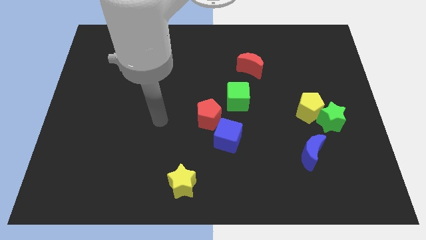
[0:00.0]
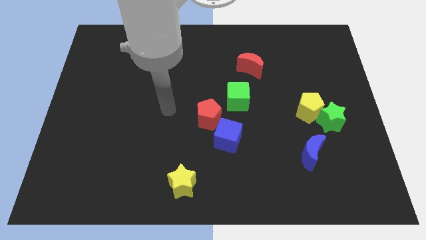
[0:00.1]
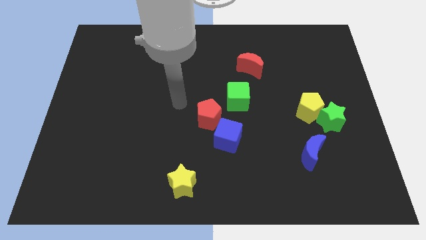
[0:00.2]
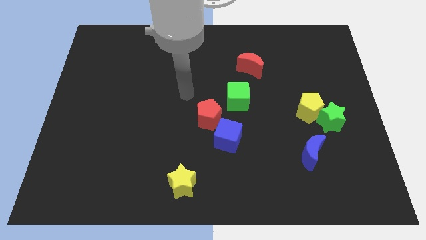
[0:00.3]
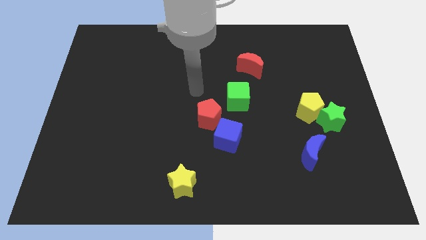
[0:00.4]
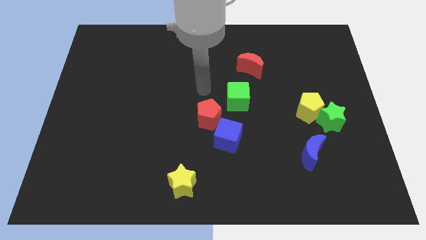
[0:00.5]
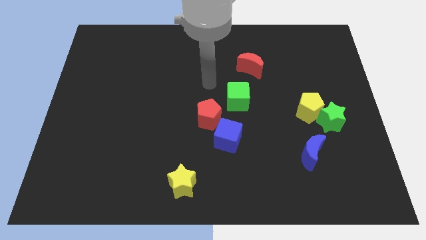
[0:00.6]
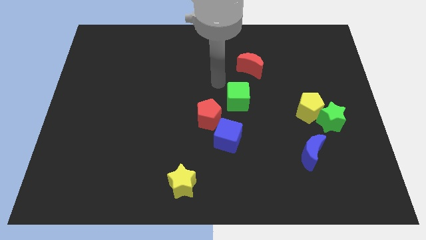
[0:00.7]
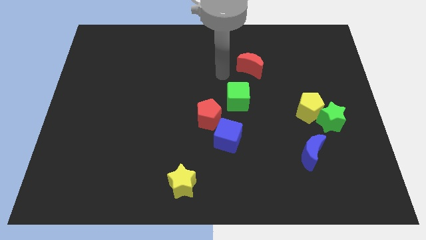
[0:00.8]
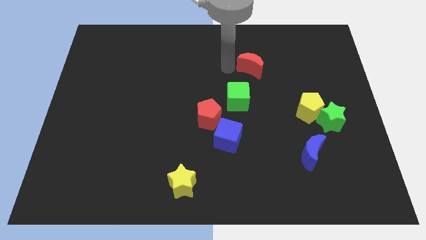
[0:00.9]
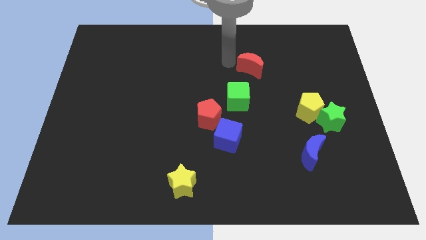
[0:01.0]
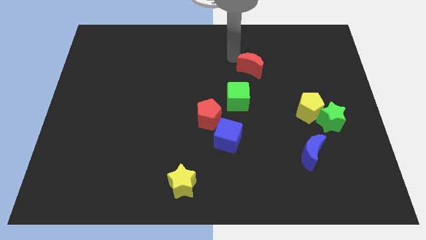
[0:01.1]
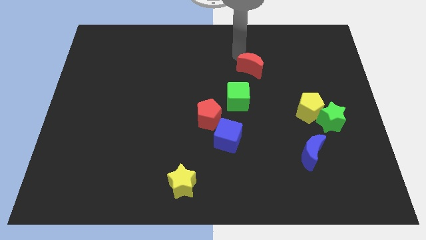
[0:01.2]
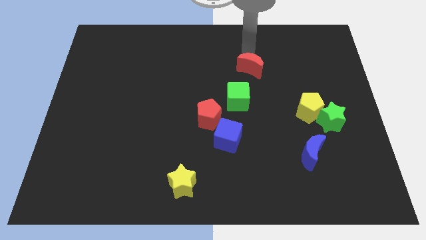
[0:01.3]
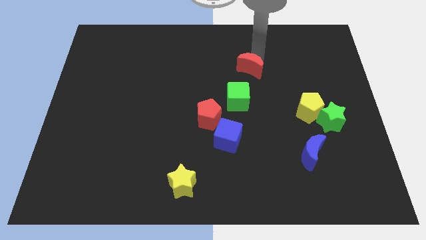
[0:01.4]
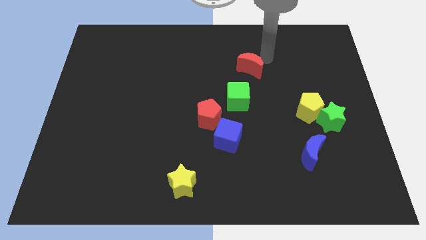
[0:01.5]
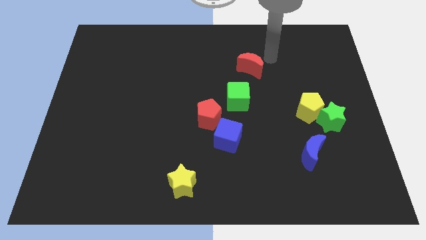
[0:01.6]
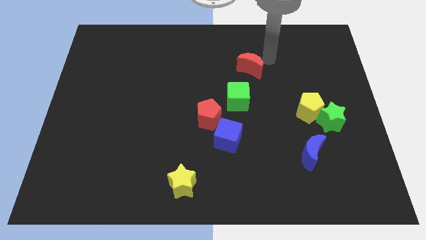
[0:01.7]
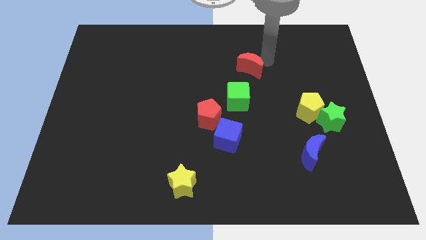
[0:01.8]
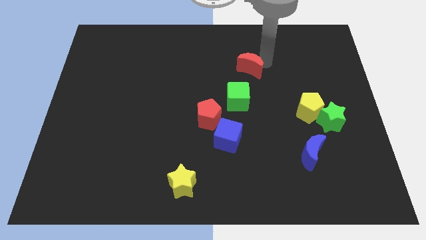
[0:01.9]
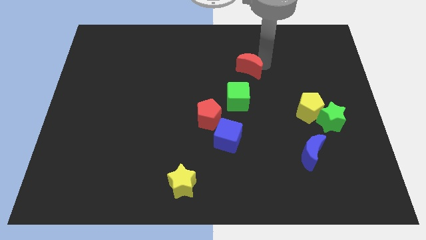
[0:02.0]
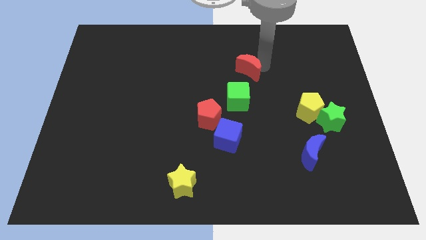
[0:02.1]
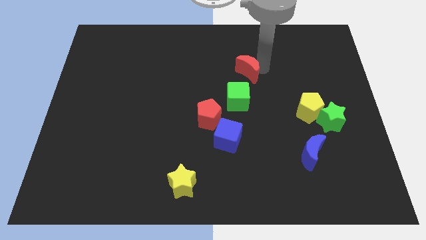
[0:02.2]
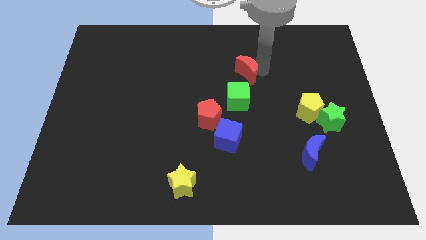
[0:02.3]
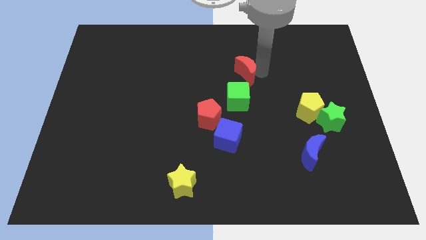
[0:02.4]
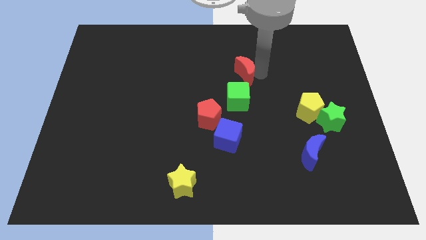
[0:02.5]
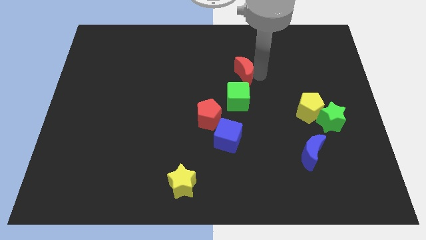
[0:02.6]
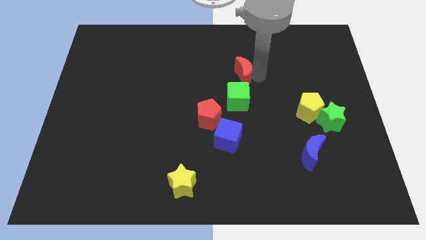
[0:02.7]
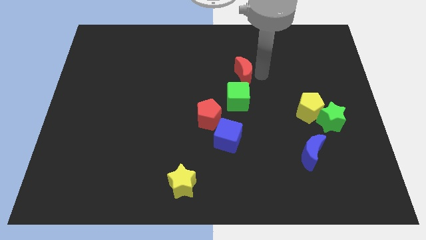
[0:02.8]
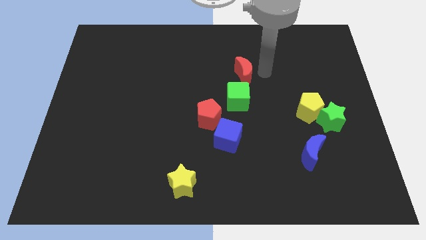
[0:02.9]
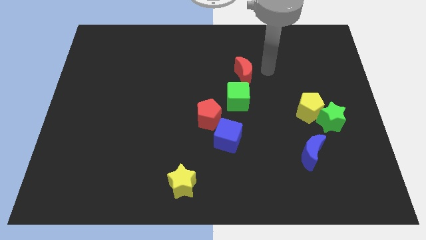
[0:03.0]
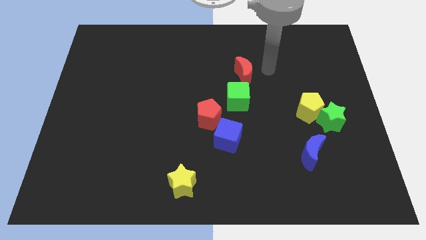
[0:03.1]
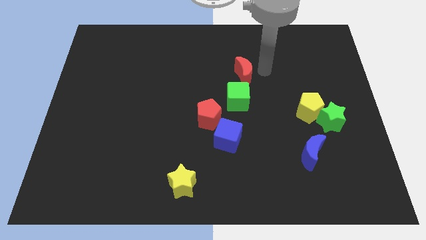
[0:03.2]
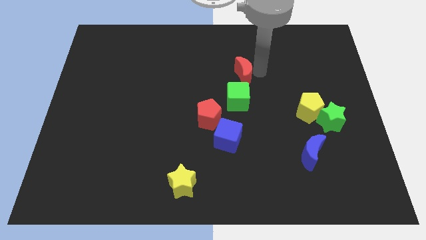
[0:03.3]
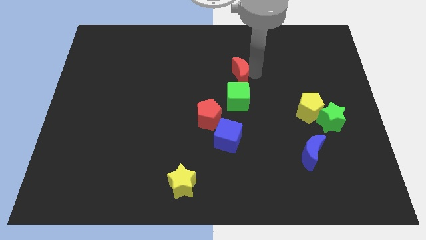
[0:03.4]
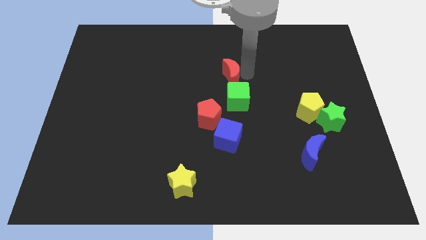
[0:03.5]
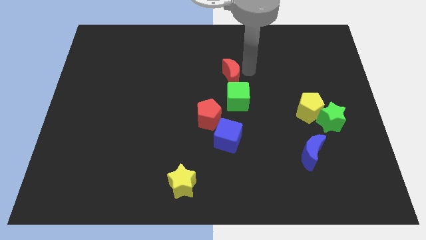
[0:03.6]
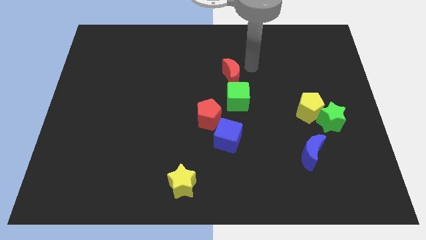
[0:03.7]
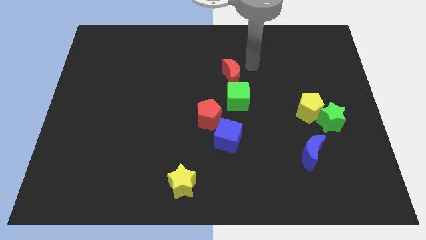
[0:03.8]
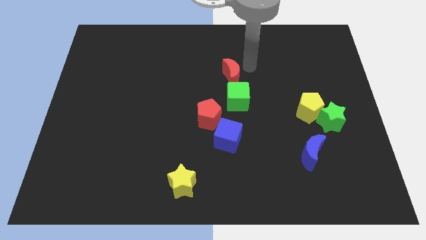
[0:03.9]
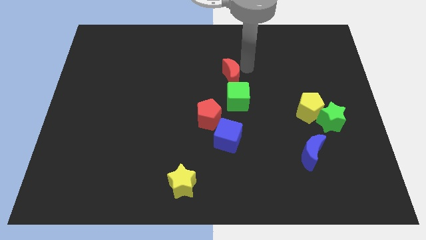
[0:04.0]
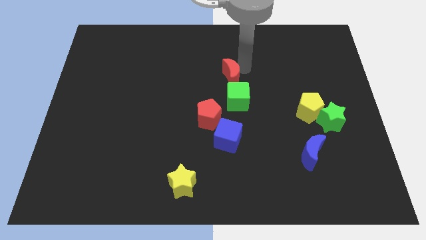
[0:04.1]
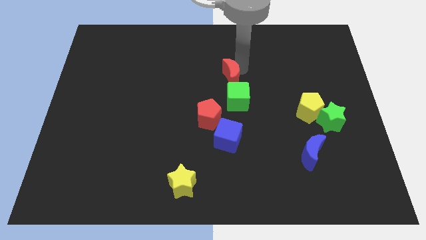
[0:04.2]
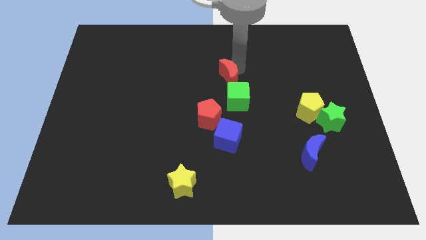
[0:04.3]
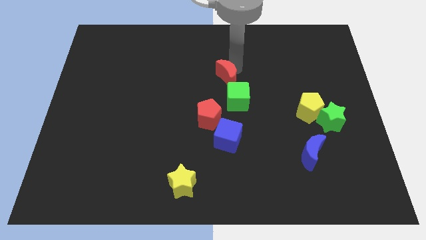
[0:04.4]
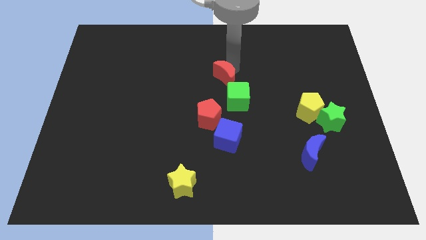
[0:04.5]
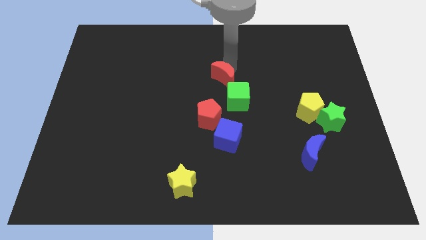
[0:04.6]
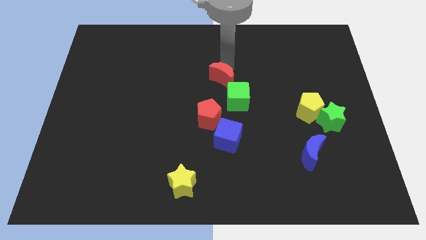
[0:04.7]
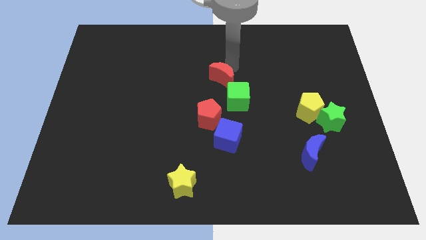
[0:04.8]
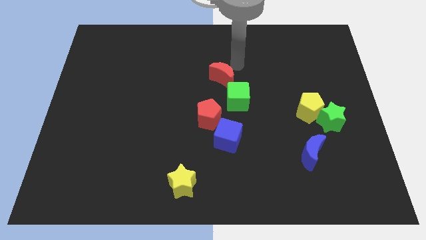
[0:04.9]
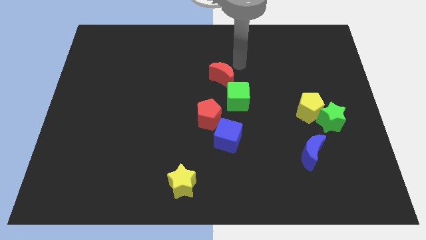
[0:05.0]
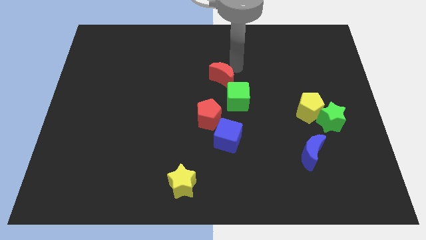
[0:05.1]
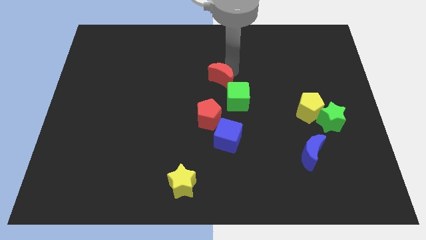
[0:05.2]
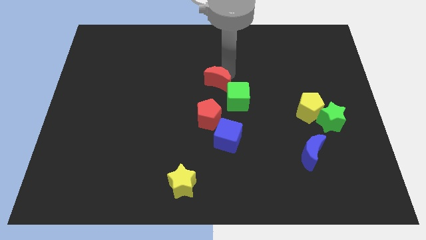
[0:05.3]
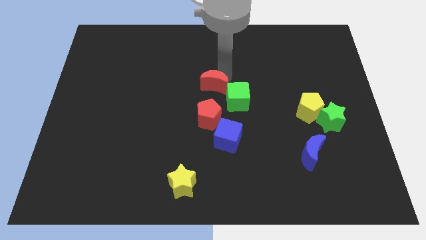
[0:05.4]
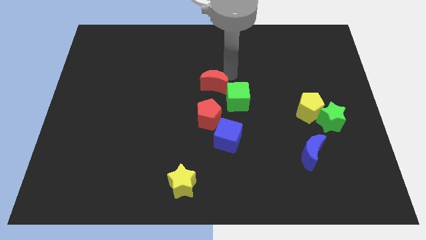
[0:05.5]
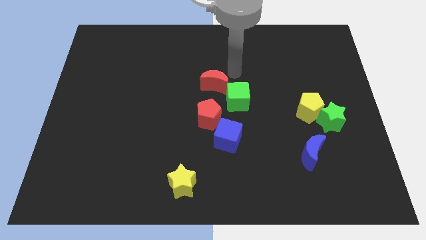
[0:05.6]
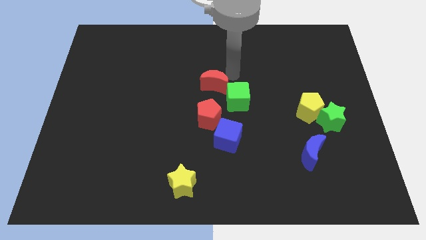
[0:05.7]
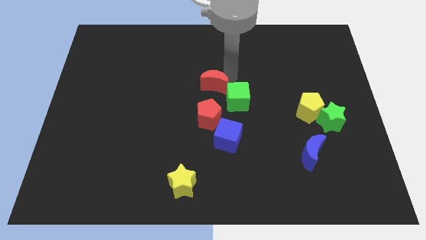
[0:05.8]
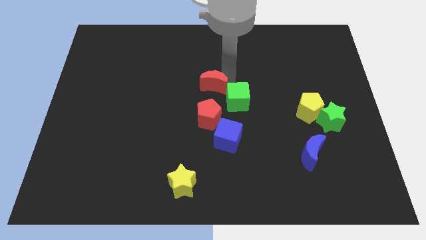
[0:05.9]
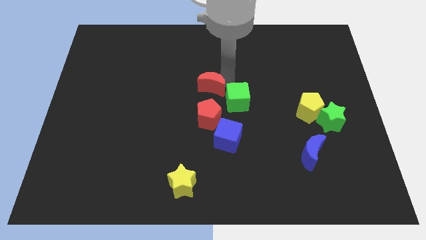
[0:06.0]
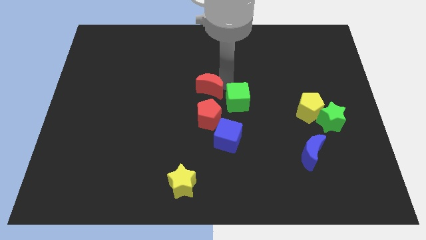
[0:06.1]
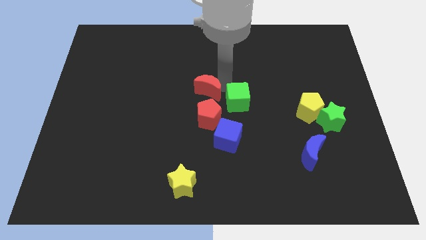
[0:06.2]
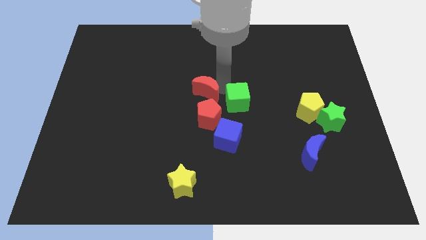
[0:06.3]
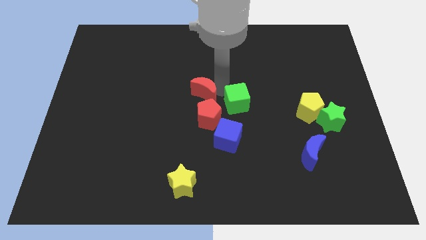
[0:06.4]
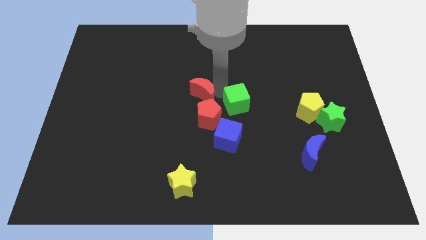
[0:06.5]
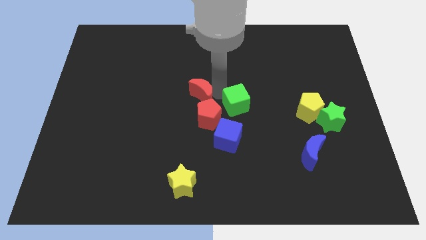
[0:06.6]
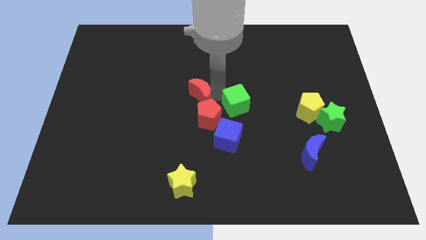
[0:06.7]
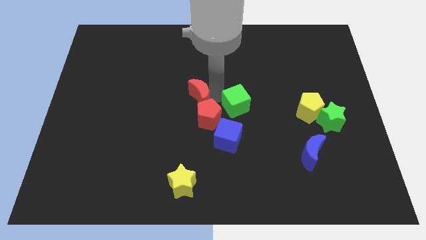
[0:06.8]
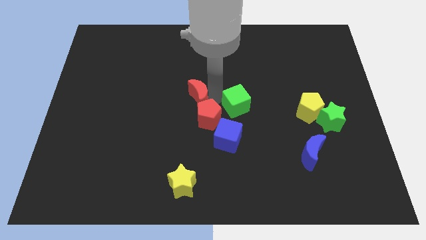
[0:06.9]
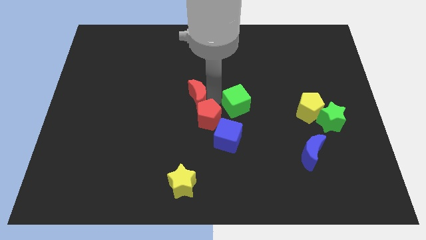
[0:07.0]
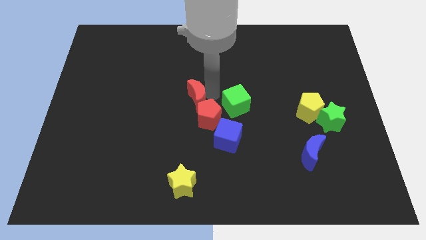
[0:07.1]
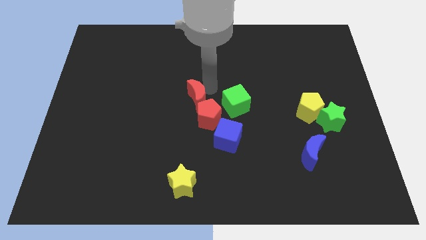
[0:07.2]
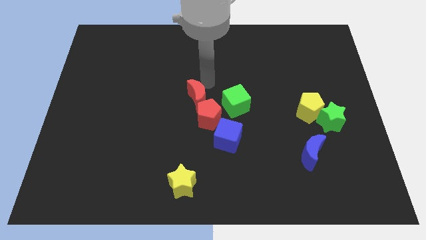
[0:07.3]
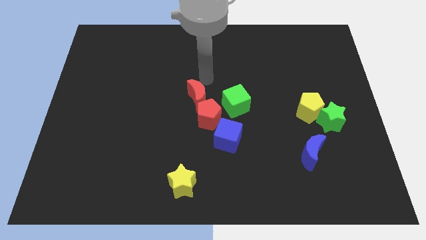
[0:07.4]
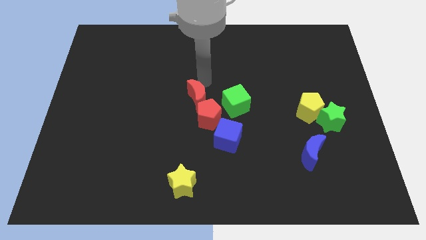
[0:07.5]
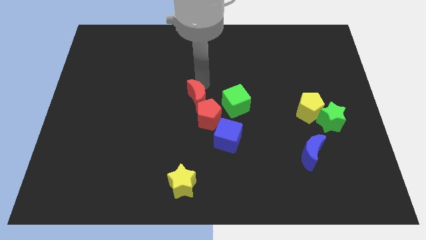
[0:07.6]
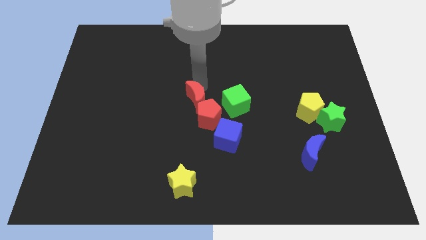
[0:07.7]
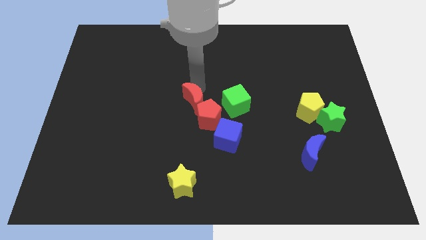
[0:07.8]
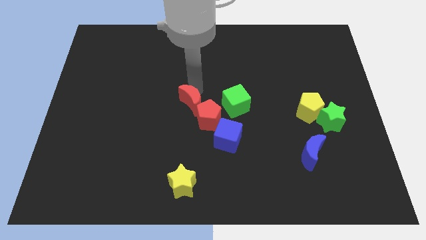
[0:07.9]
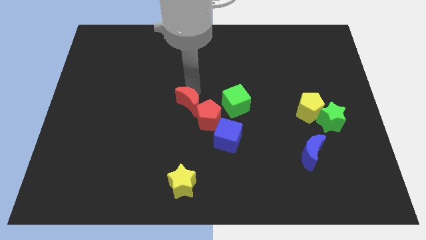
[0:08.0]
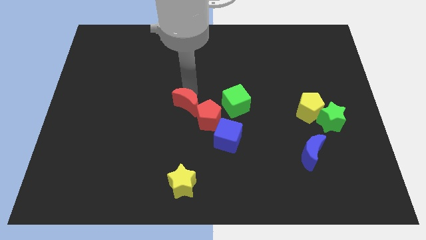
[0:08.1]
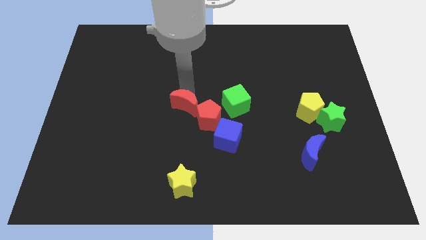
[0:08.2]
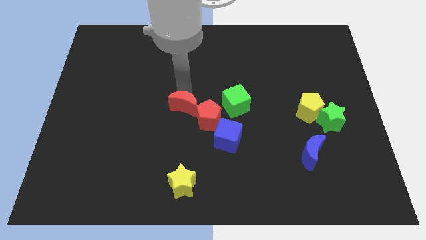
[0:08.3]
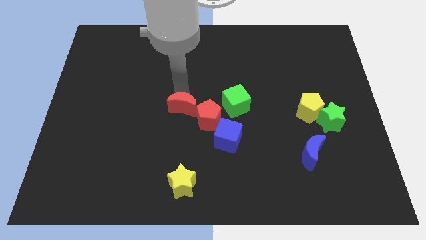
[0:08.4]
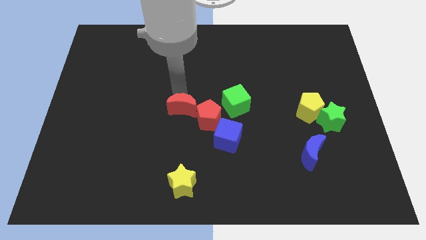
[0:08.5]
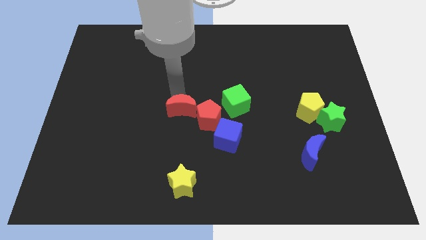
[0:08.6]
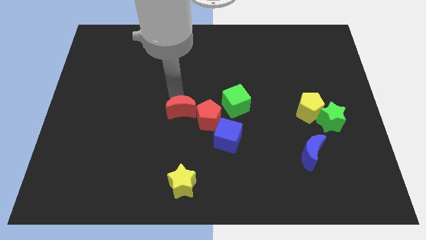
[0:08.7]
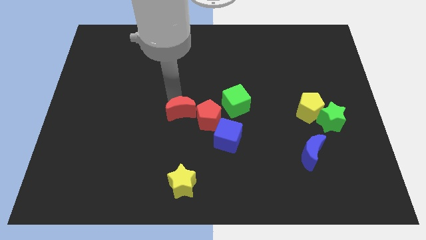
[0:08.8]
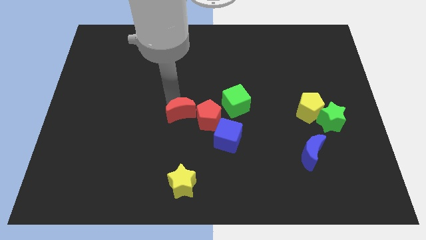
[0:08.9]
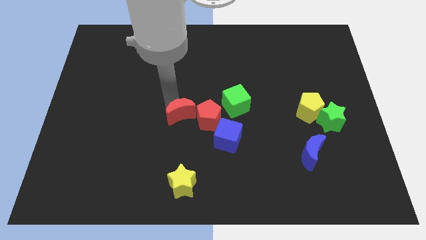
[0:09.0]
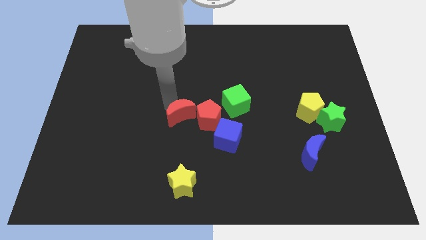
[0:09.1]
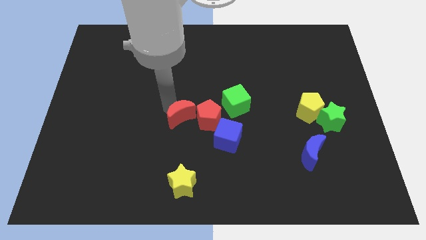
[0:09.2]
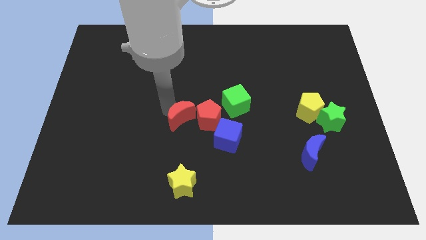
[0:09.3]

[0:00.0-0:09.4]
slide the red moon to the bottom left of the red pentagon
